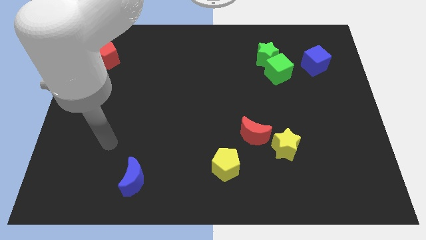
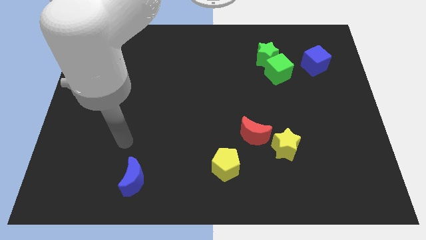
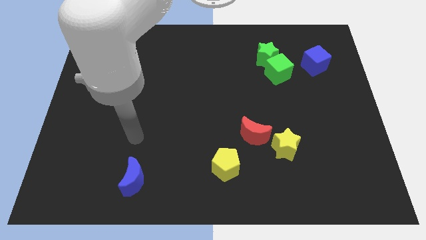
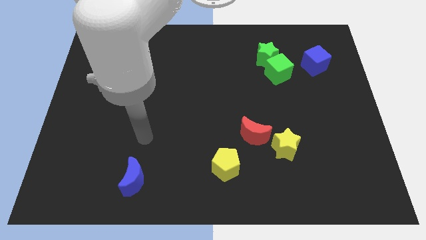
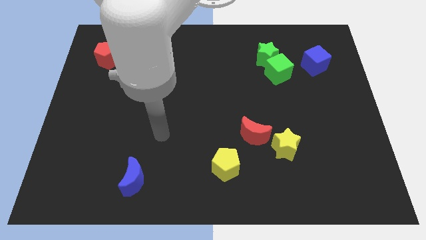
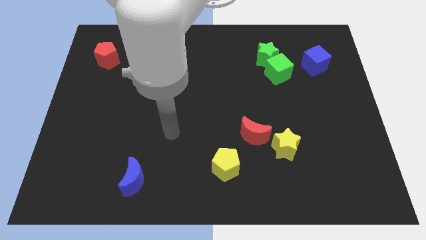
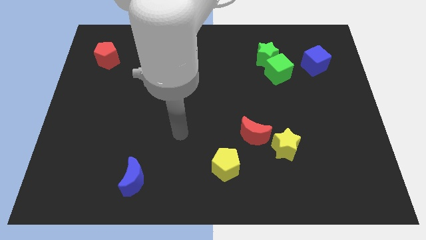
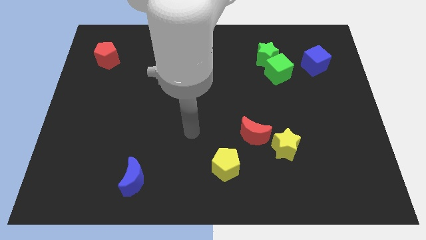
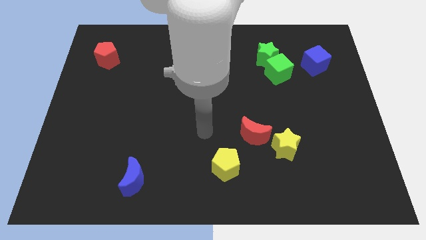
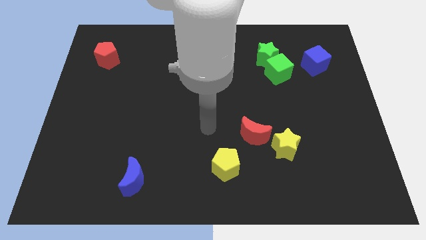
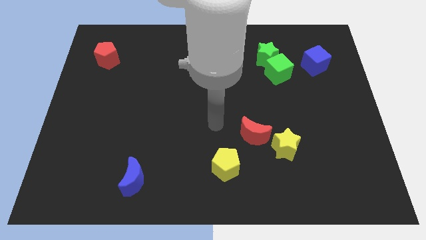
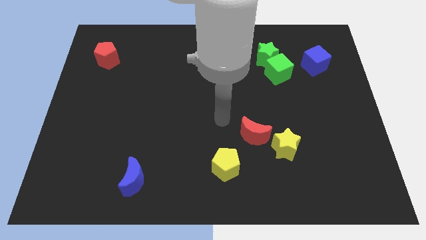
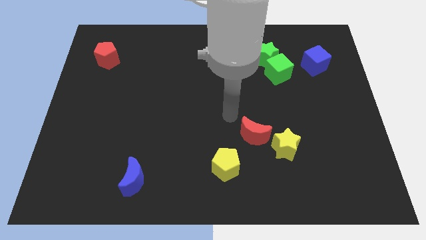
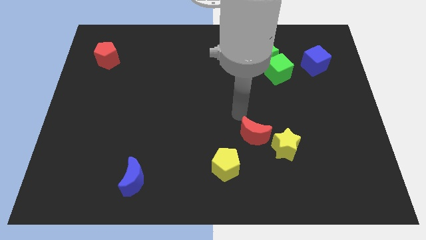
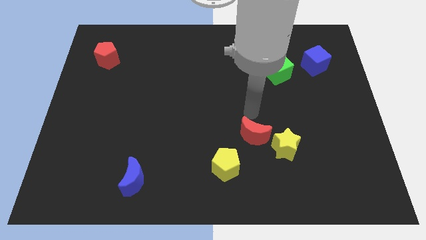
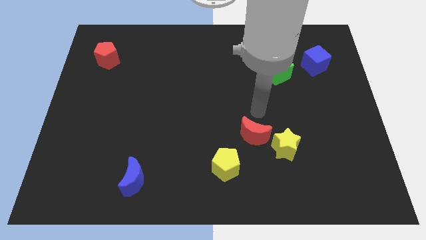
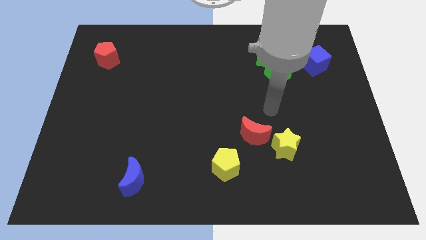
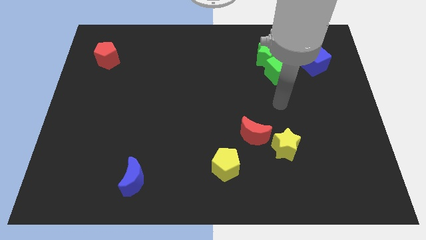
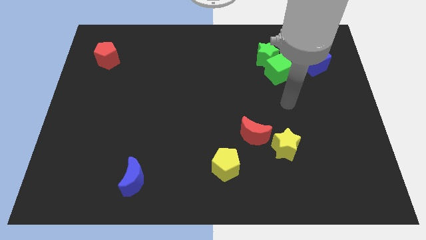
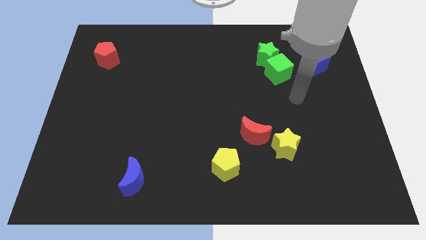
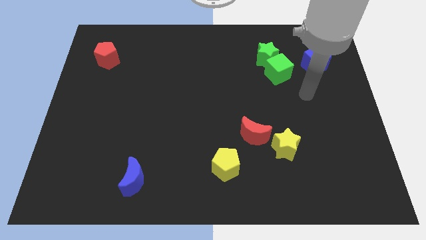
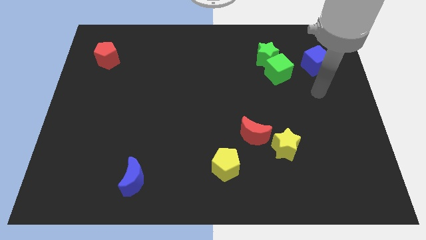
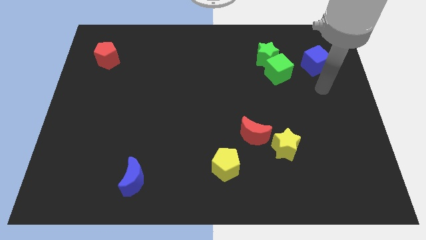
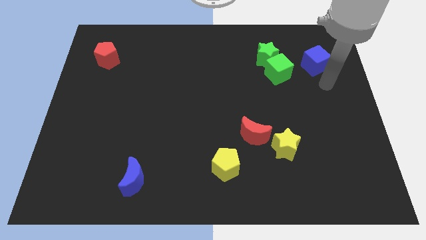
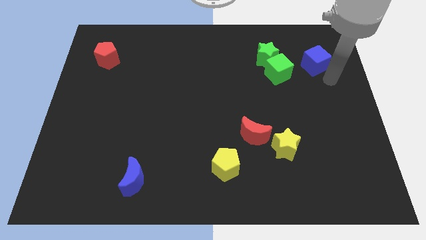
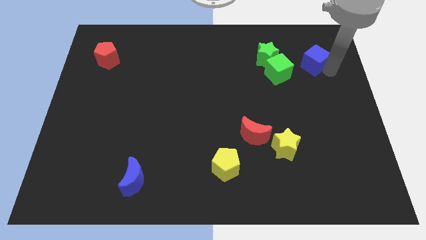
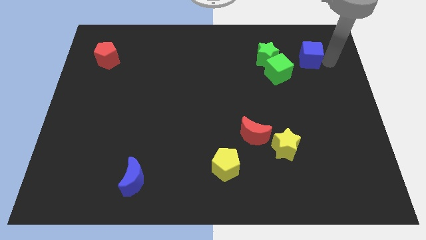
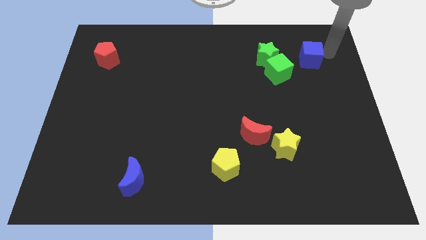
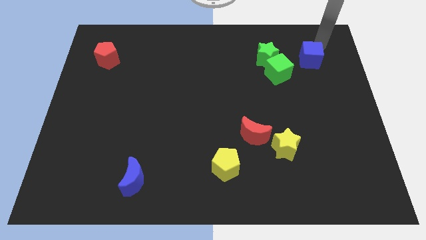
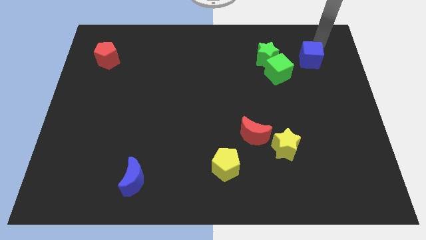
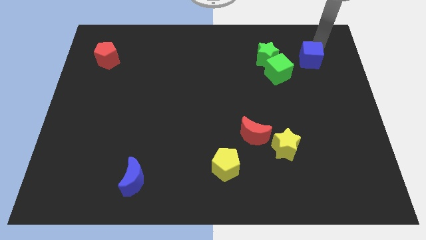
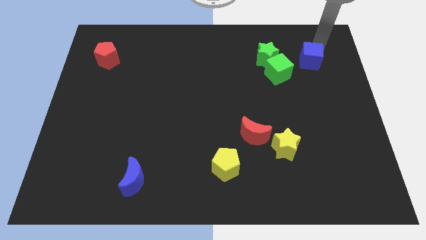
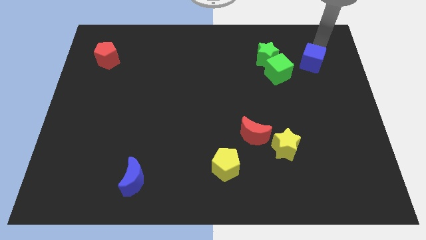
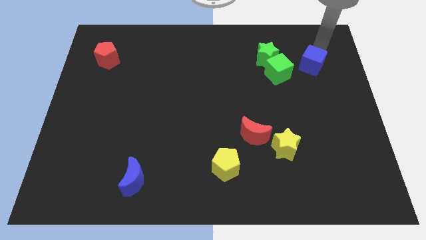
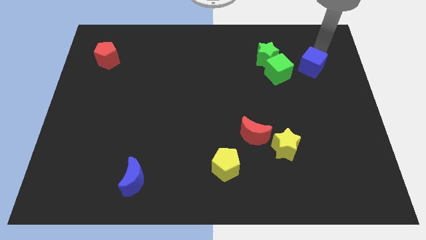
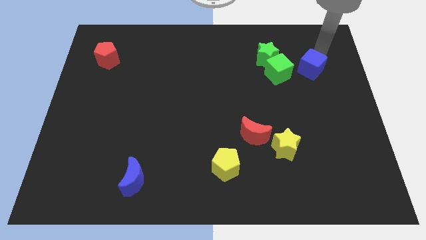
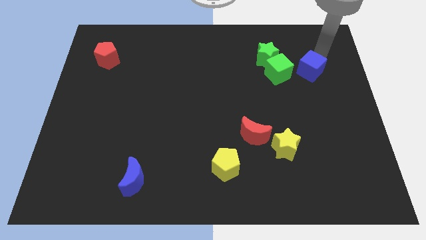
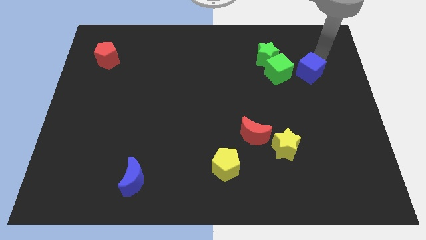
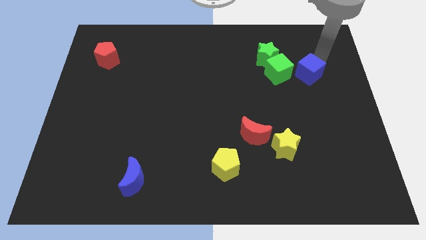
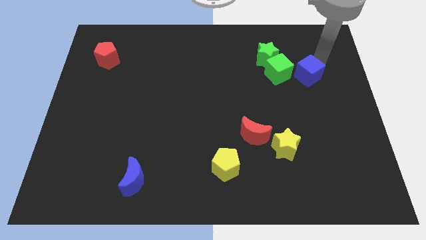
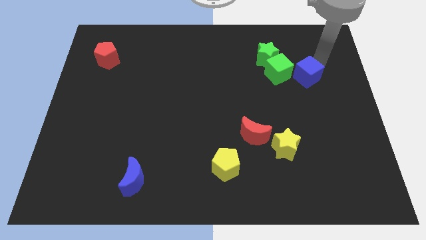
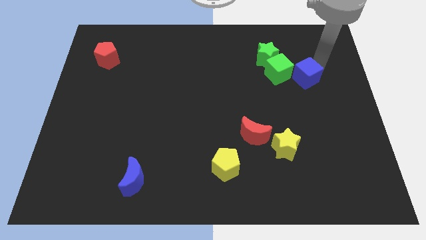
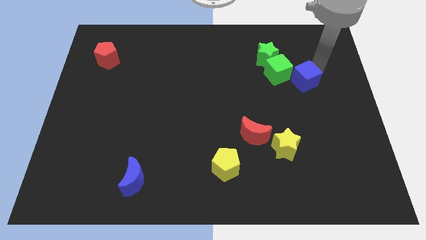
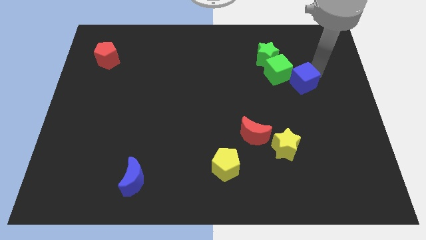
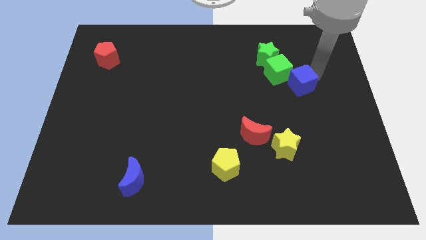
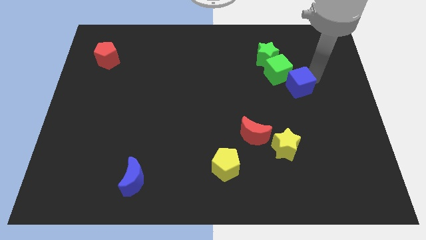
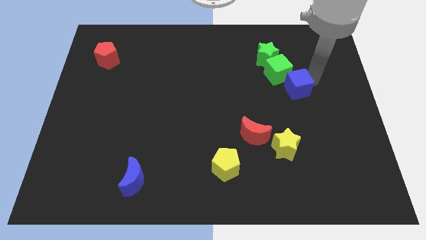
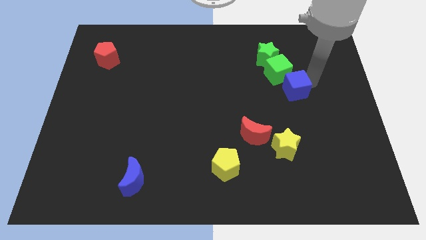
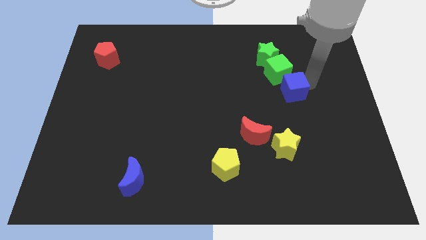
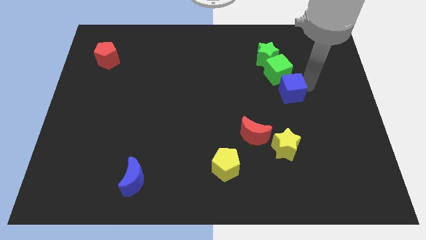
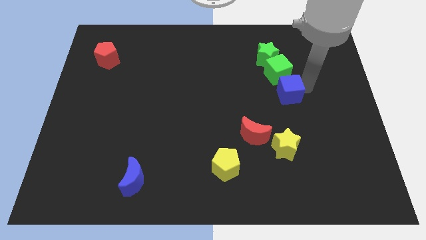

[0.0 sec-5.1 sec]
push the blue cube to the bottom of the green star

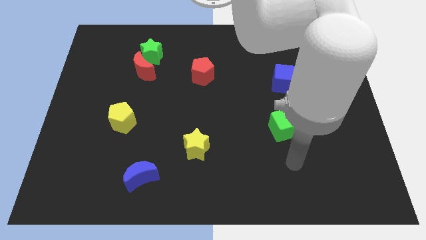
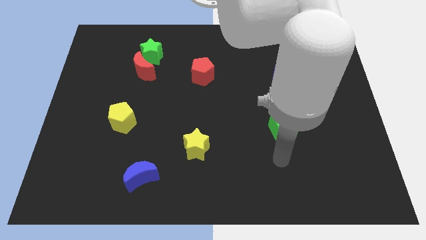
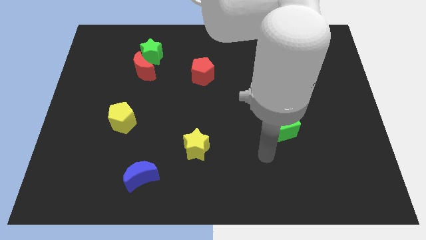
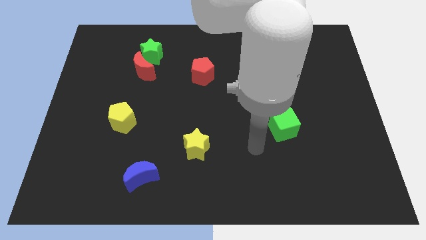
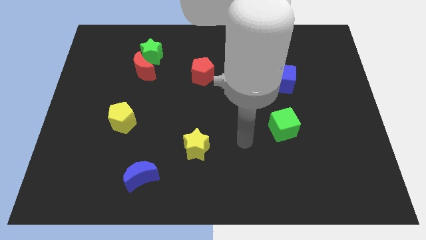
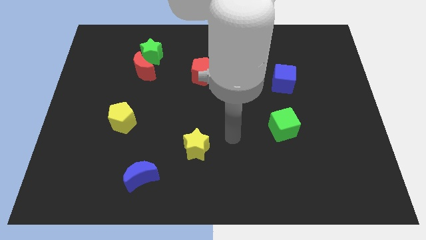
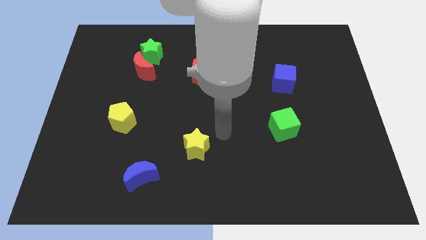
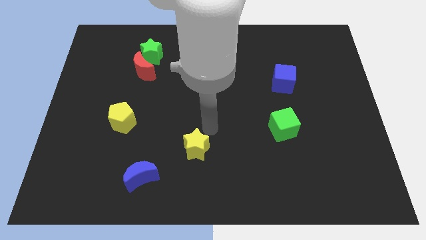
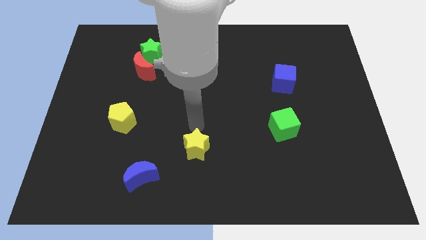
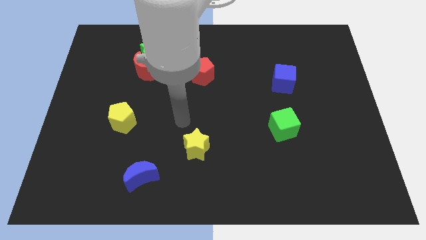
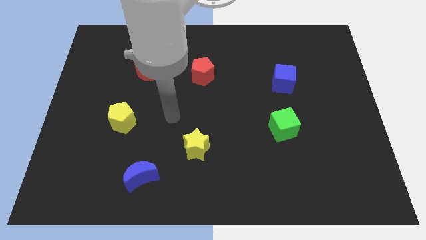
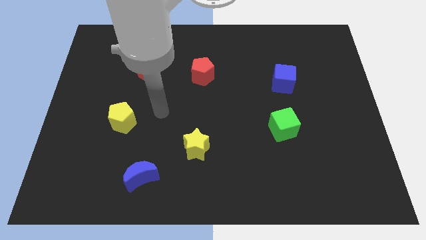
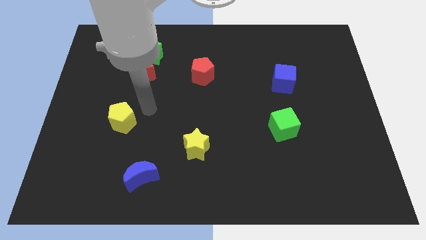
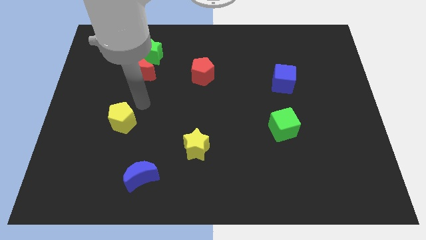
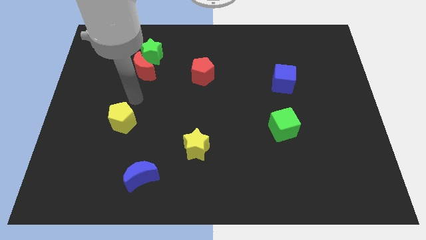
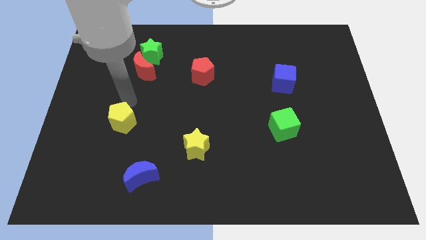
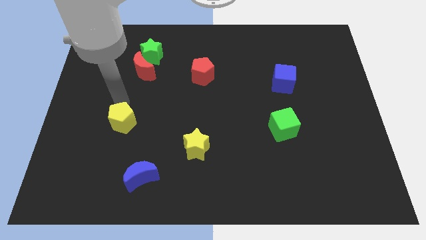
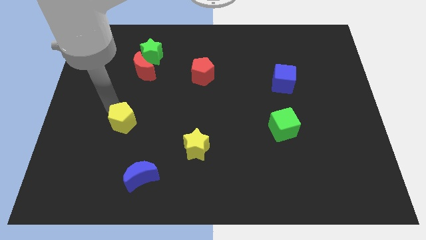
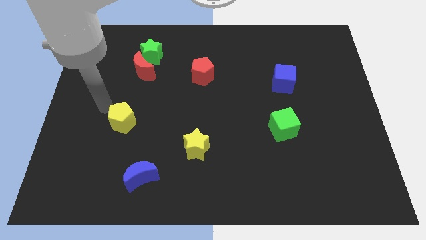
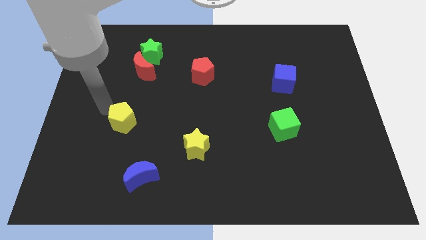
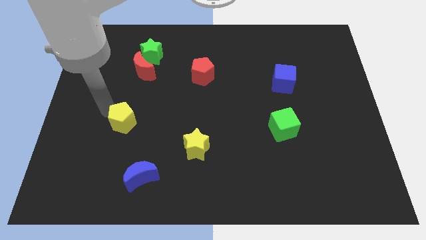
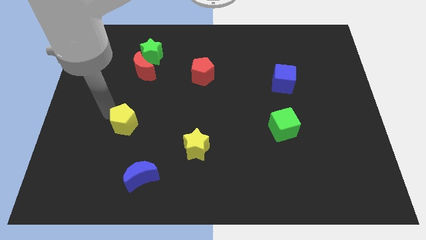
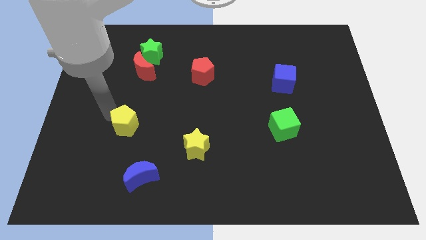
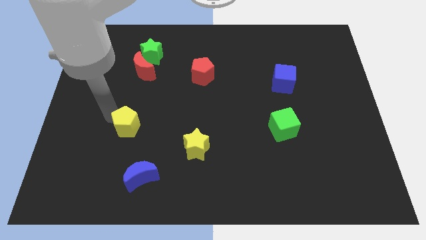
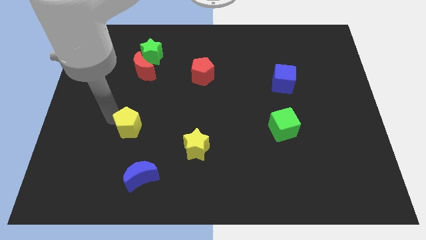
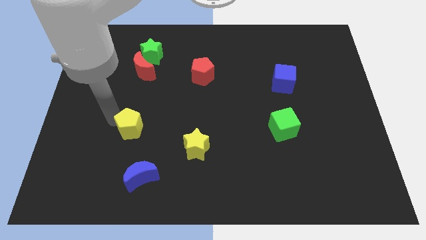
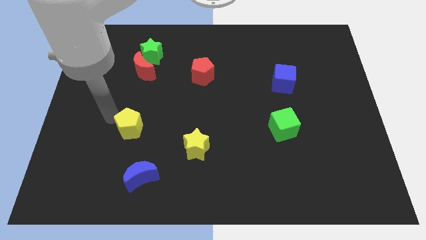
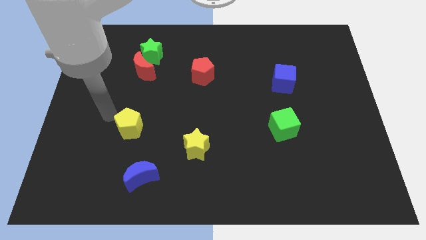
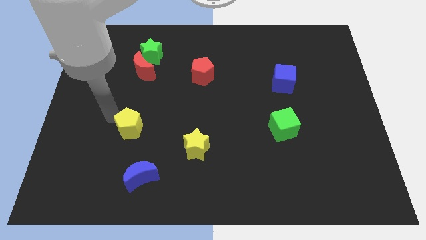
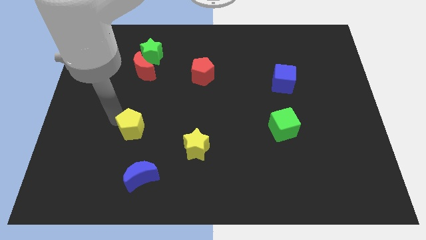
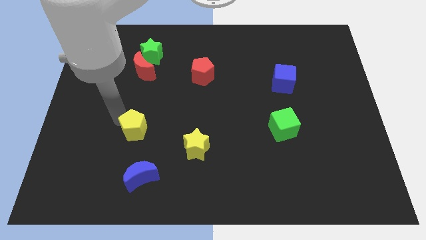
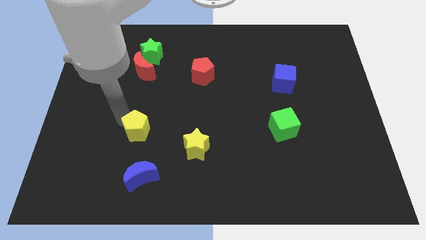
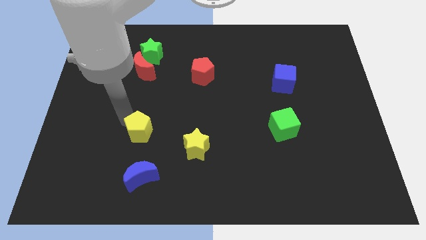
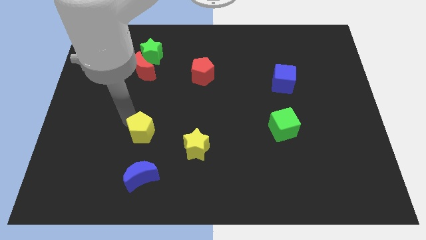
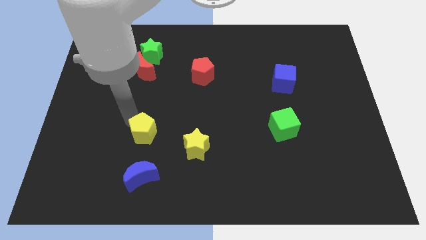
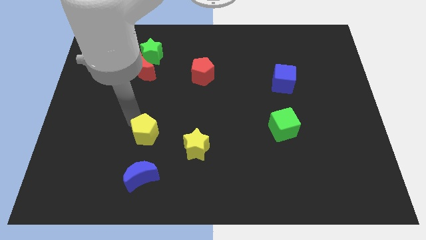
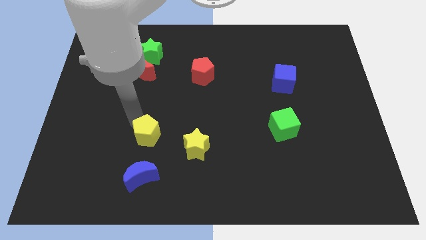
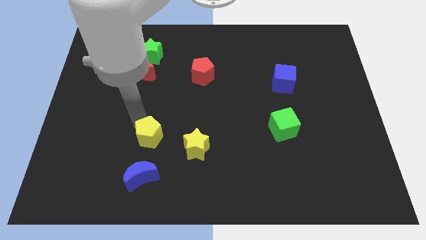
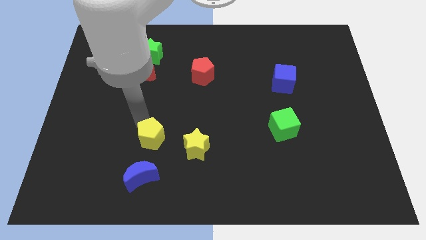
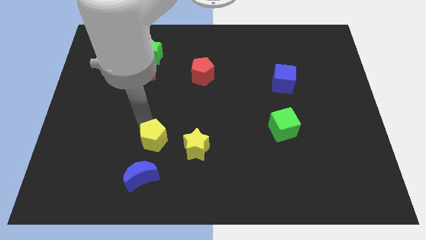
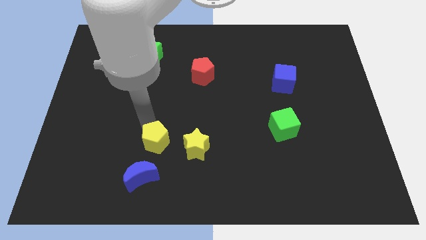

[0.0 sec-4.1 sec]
move the yellow pentagon diagonally up and to the right of the blue moon
